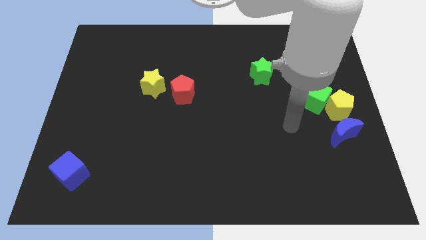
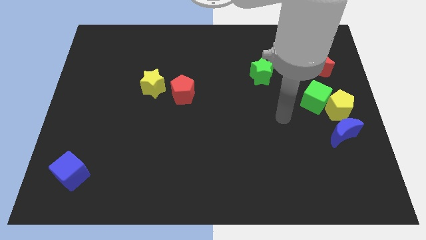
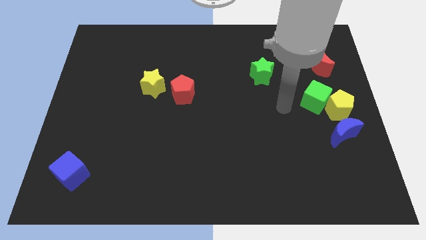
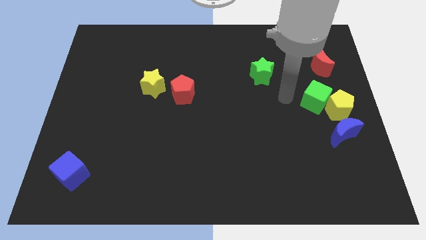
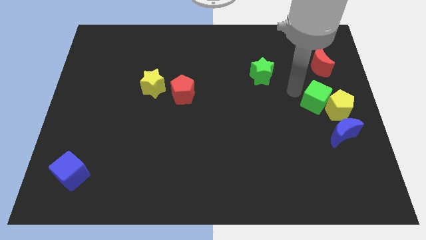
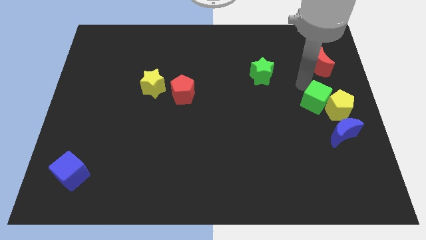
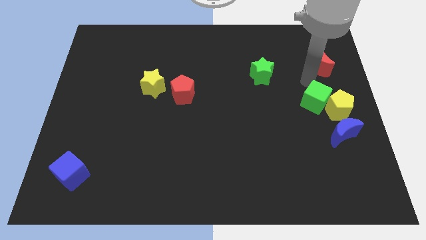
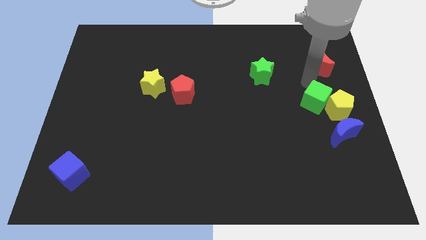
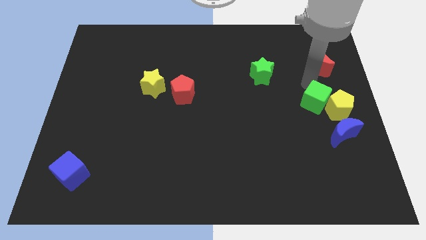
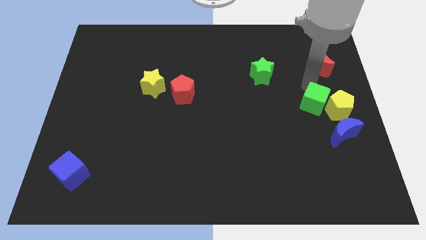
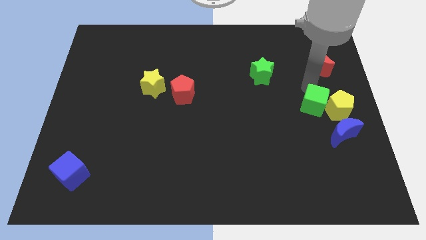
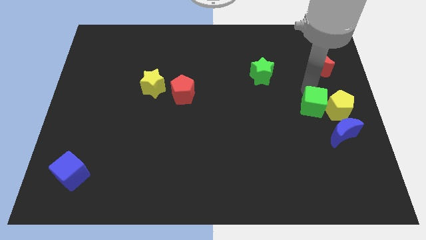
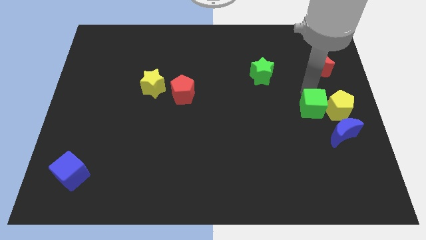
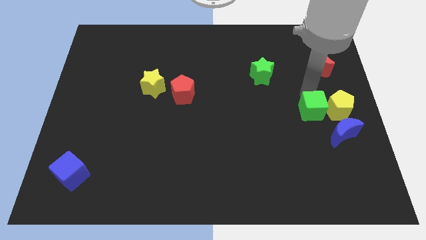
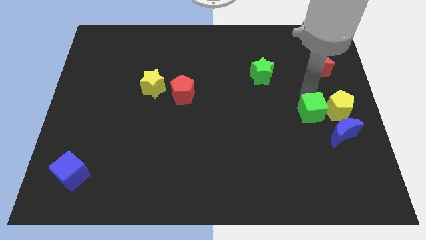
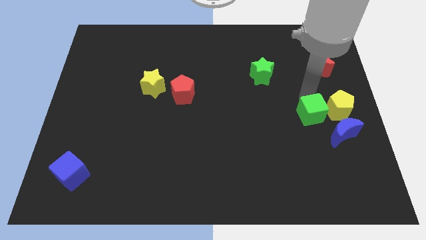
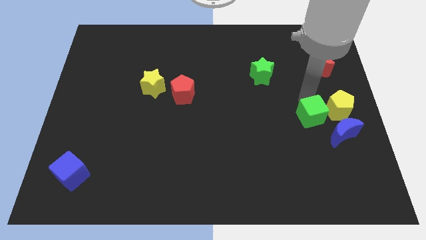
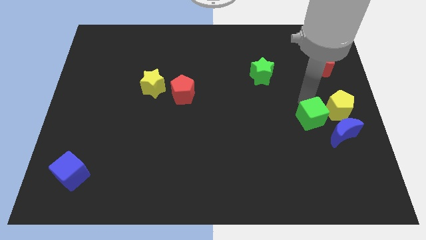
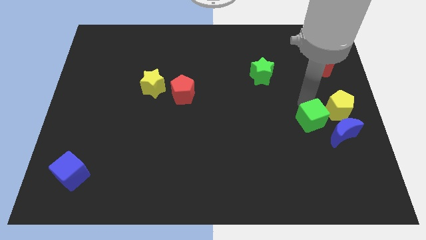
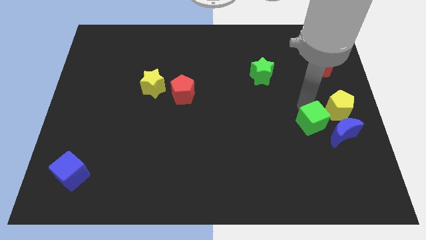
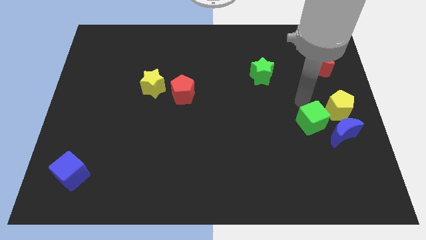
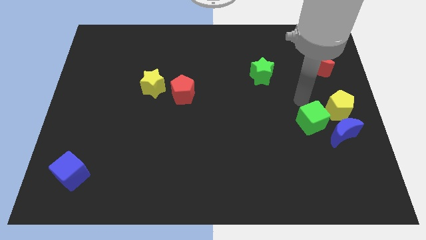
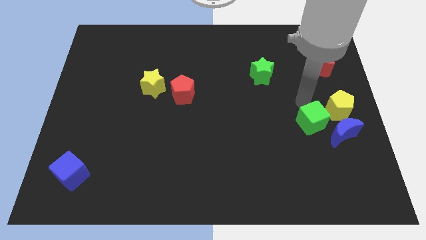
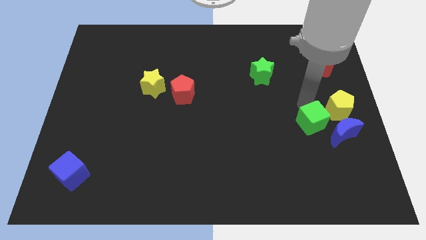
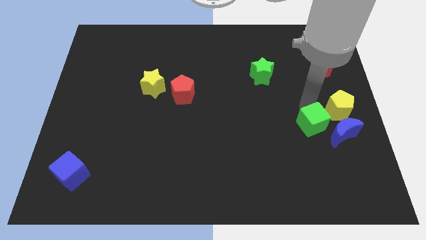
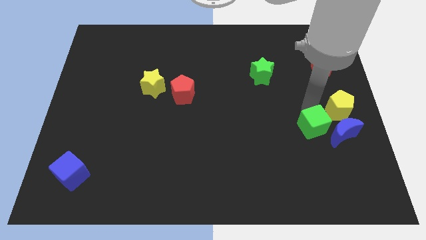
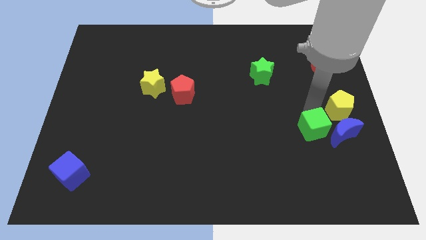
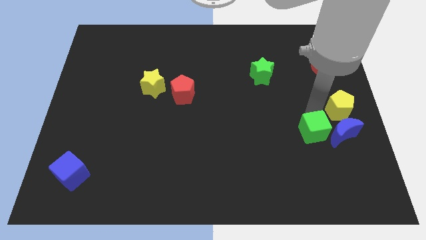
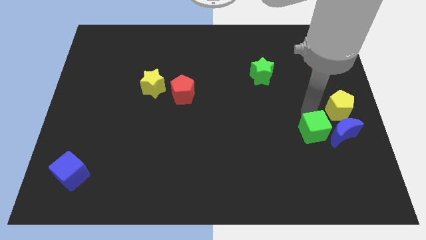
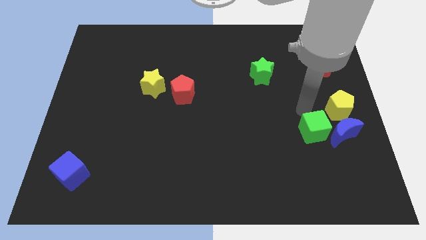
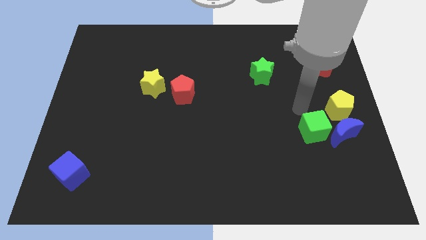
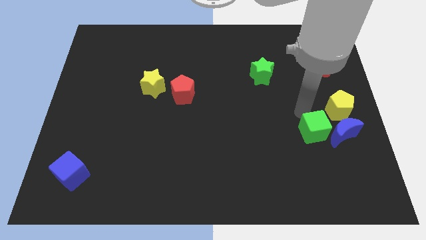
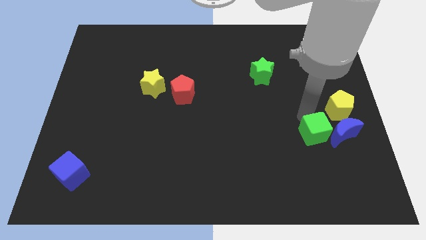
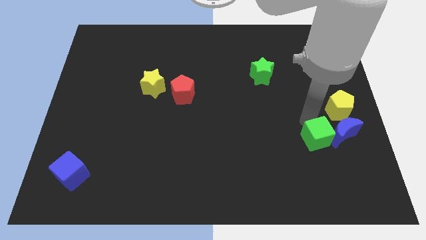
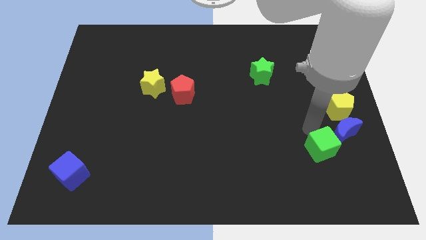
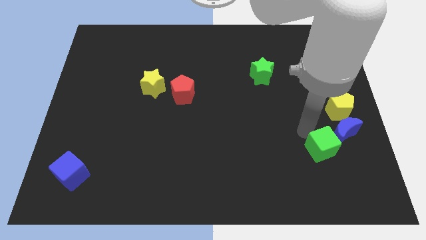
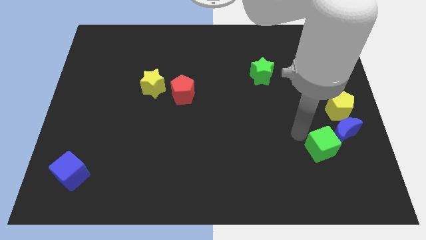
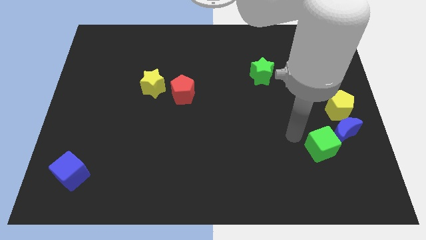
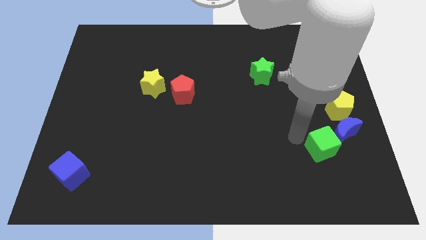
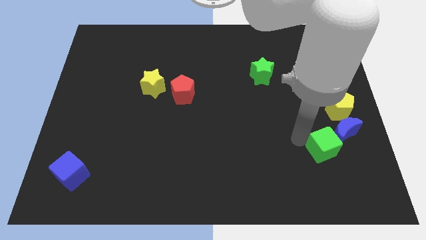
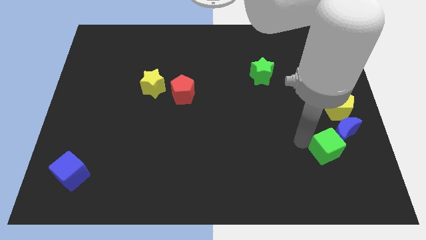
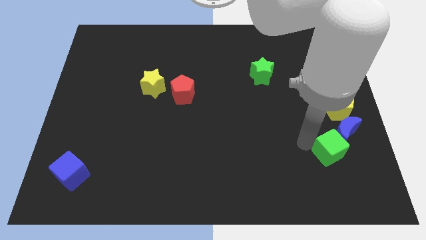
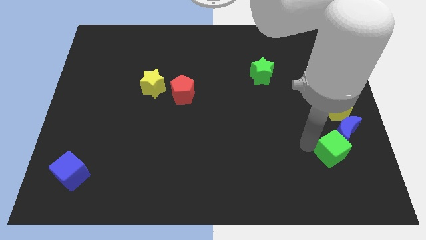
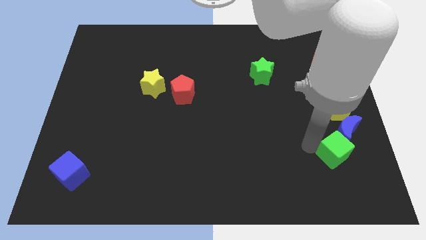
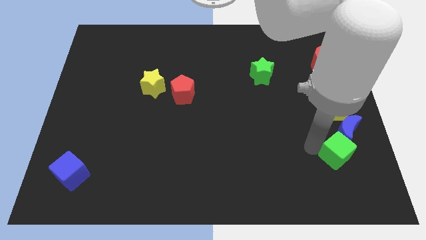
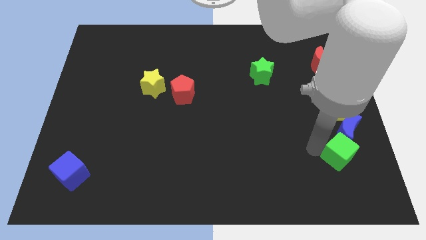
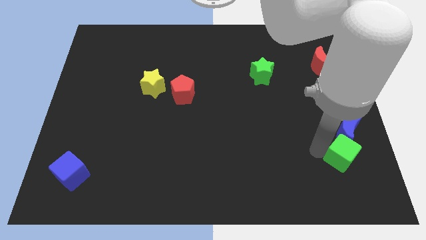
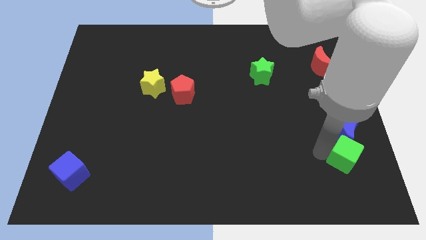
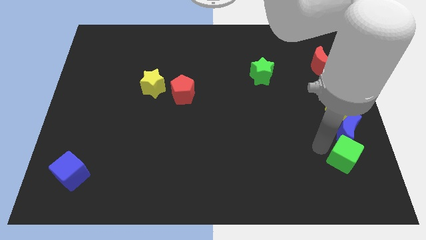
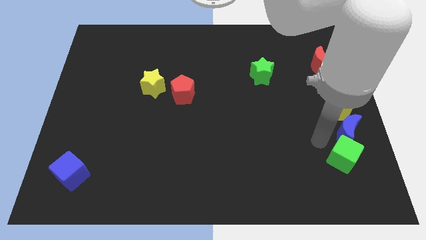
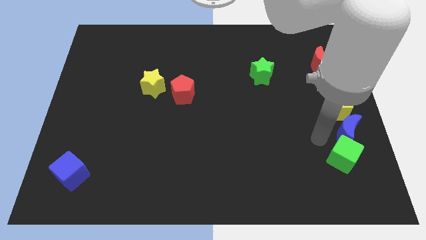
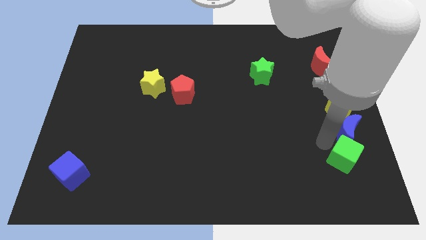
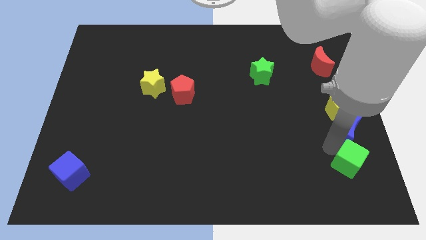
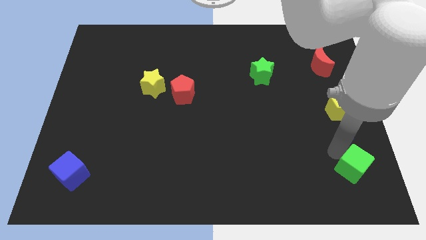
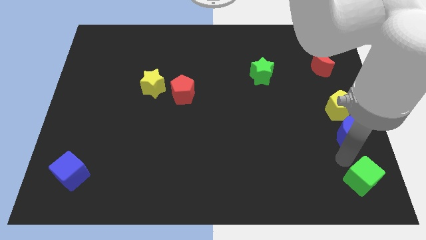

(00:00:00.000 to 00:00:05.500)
slide the green cube to the lower right corner

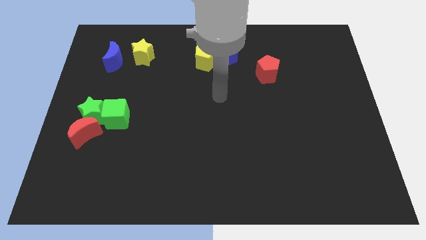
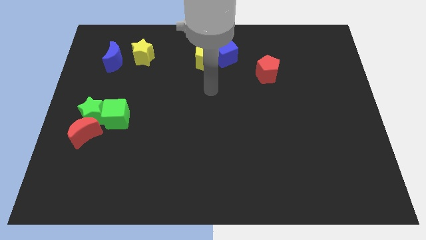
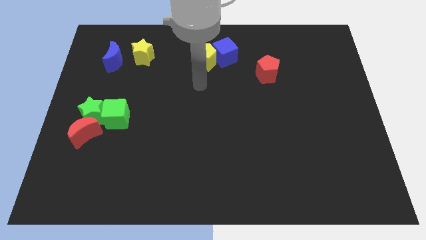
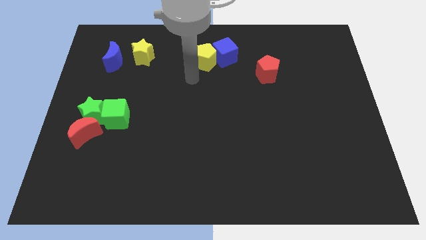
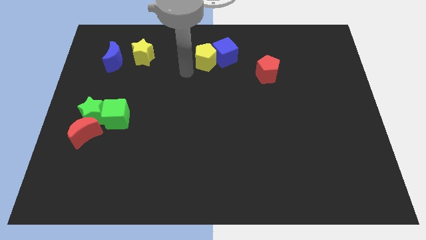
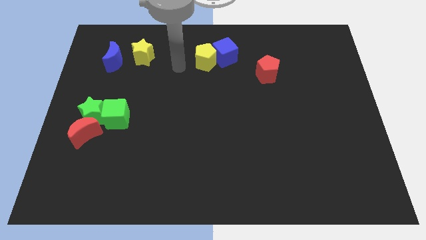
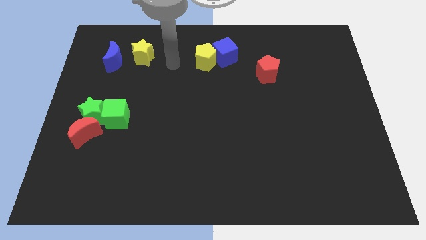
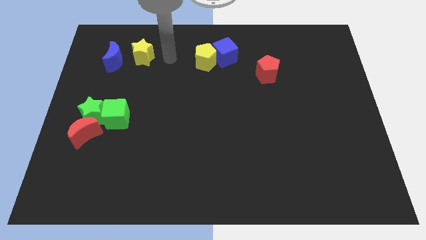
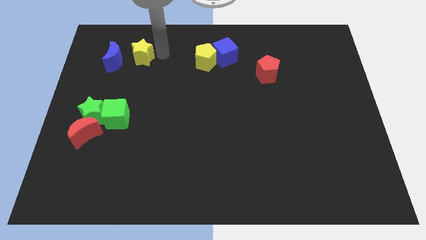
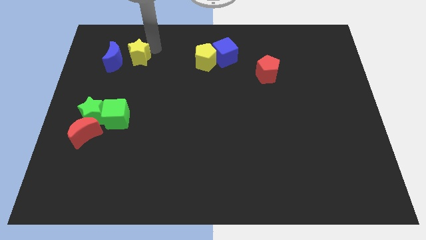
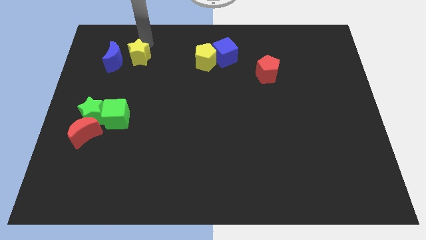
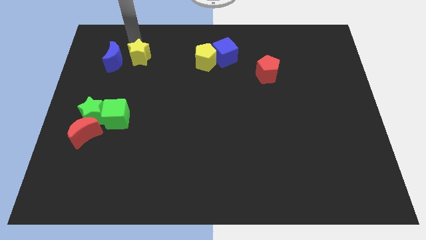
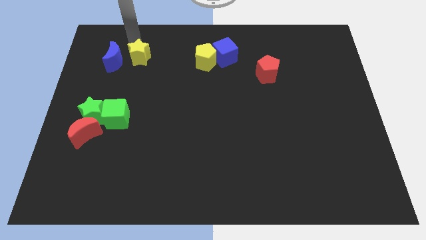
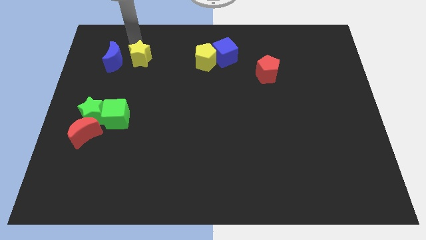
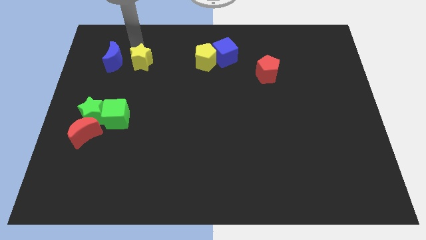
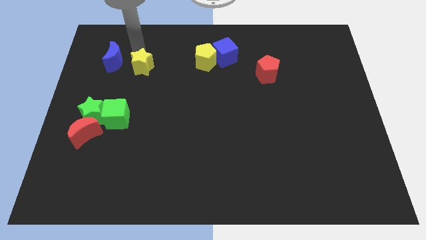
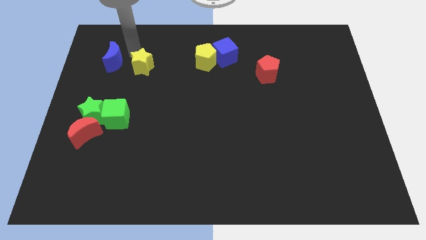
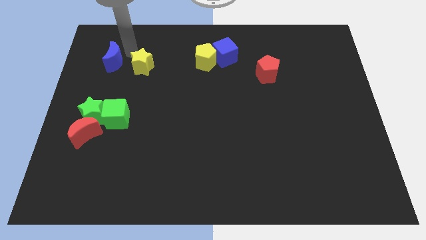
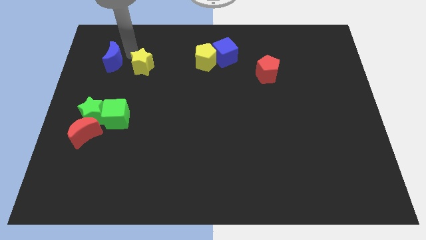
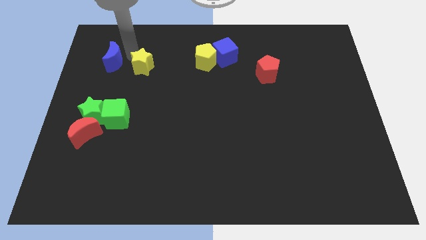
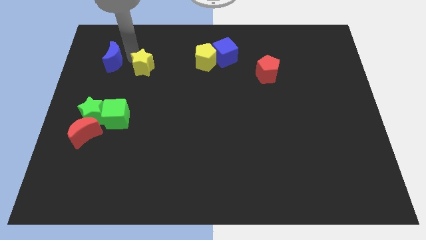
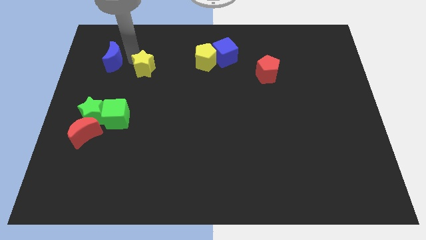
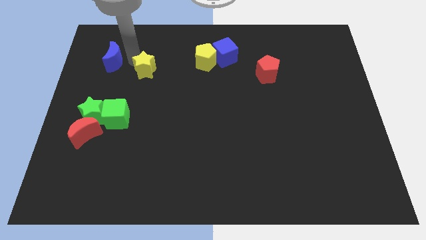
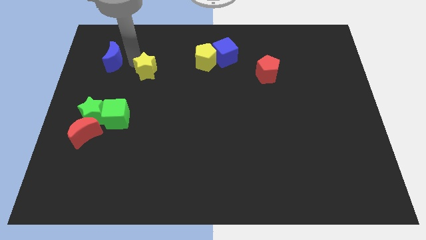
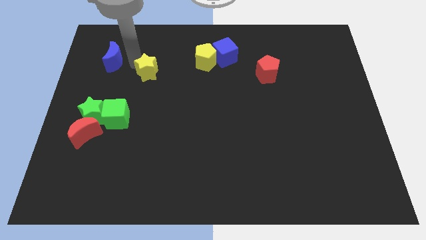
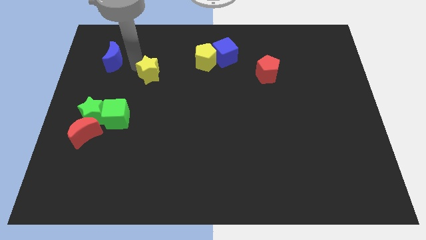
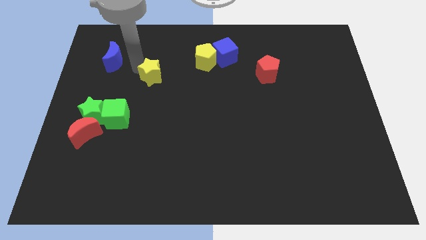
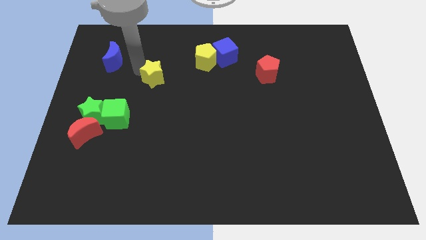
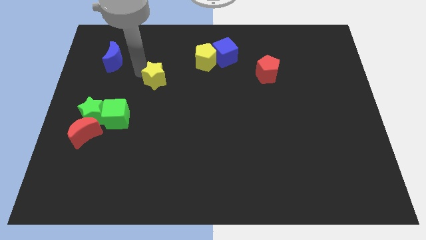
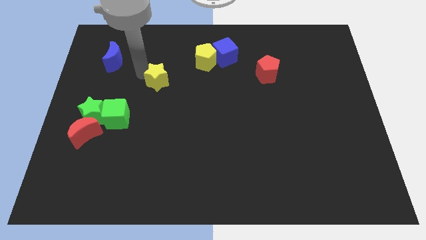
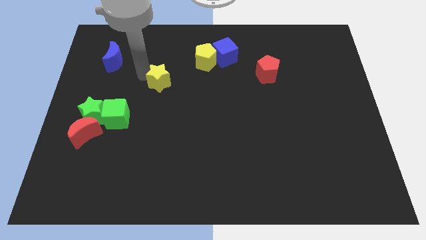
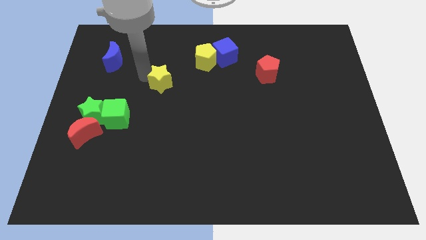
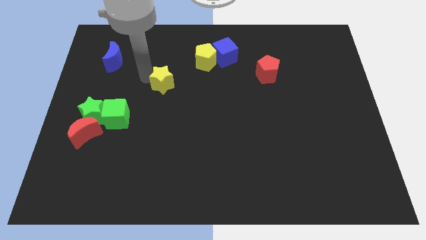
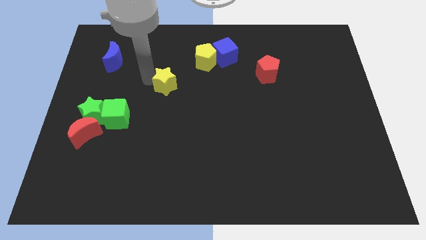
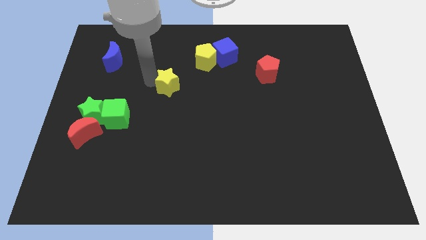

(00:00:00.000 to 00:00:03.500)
slide the yellow star to the middle of the board
